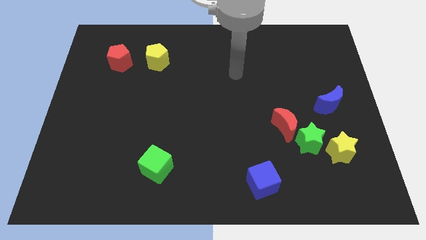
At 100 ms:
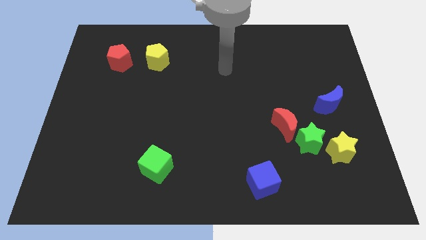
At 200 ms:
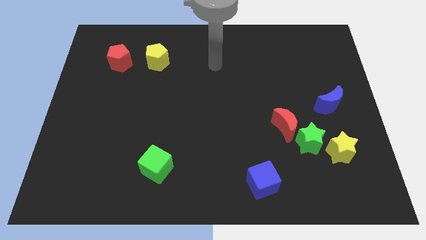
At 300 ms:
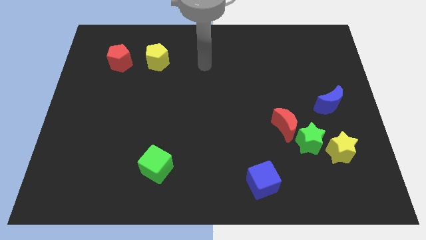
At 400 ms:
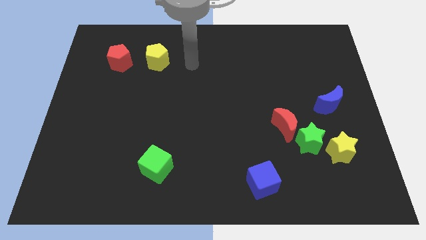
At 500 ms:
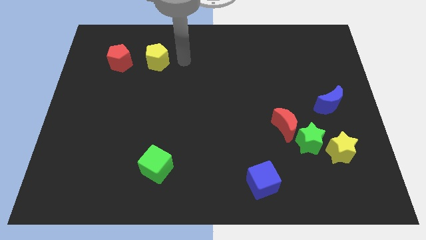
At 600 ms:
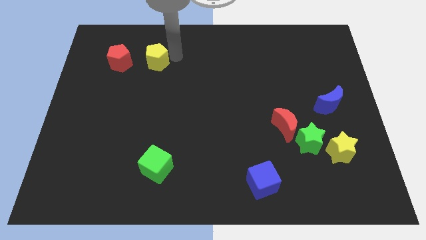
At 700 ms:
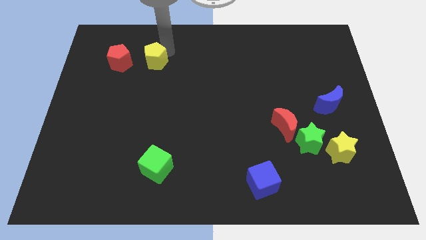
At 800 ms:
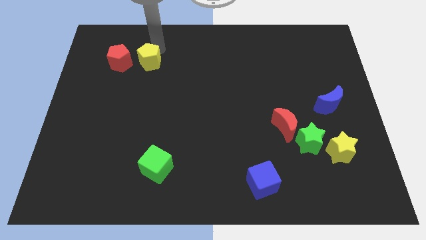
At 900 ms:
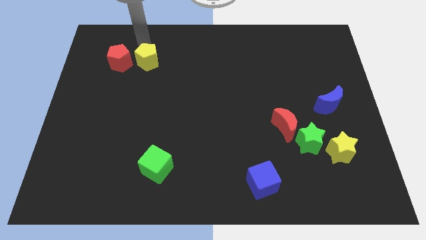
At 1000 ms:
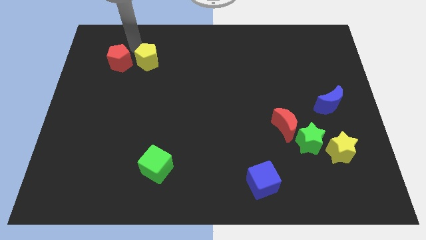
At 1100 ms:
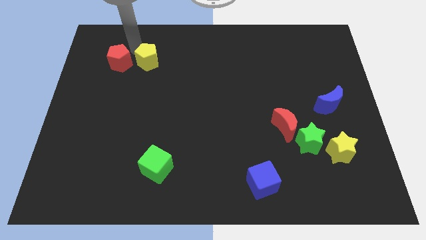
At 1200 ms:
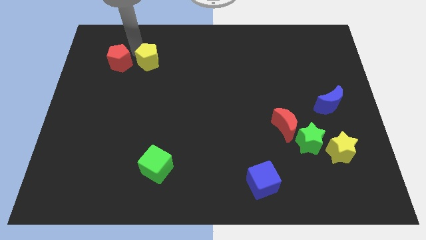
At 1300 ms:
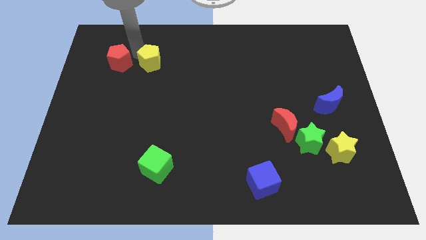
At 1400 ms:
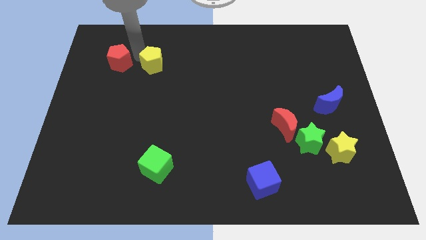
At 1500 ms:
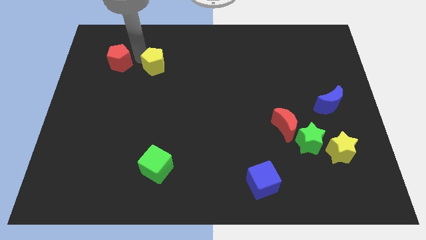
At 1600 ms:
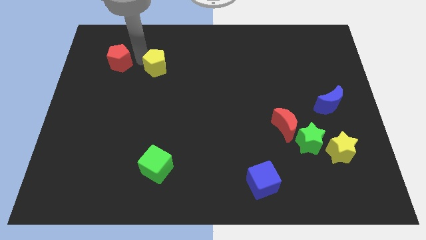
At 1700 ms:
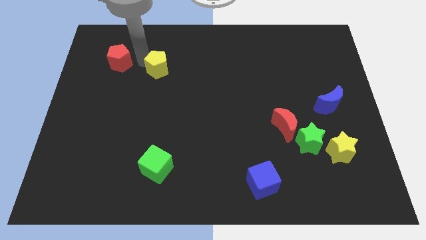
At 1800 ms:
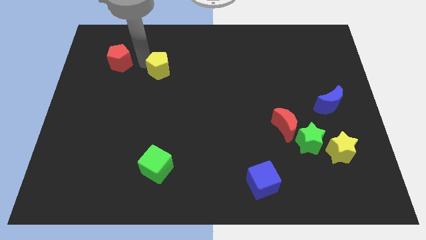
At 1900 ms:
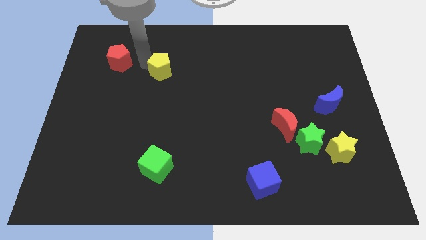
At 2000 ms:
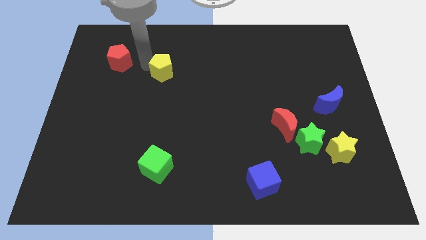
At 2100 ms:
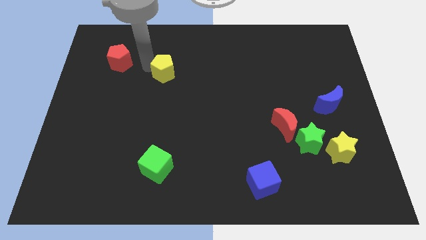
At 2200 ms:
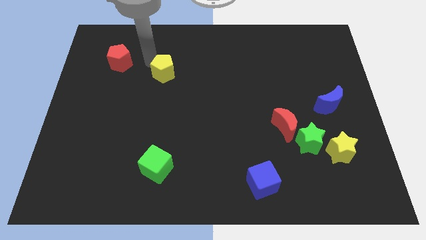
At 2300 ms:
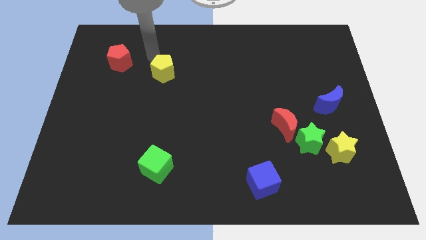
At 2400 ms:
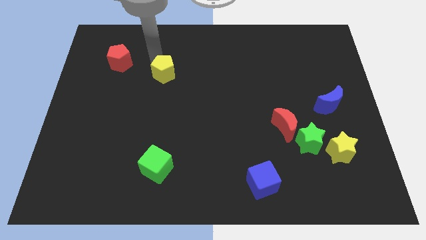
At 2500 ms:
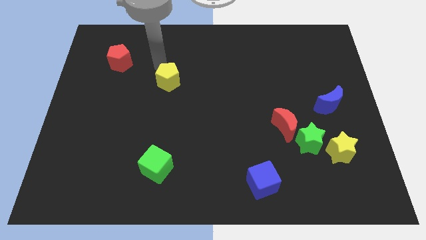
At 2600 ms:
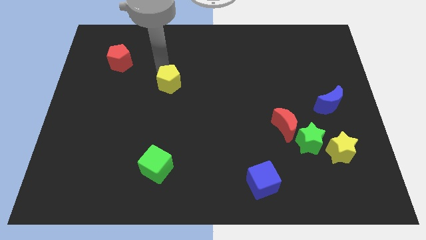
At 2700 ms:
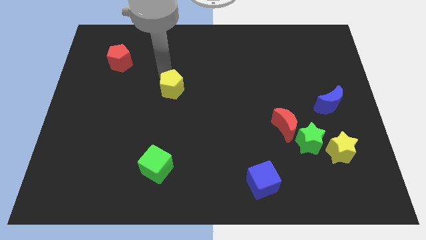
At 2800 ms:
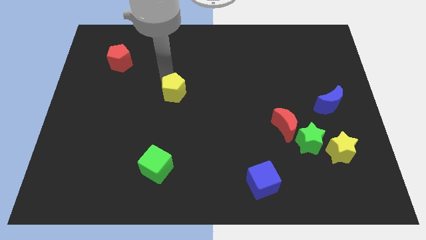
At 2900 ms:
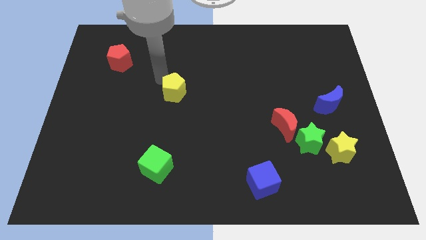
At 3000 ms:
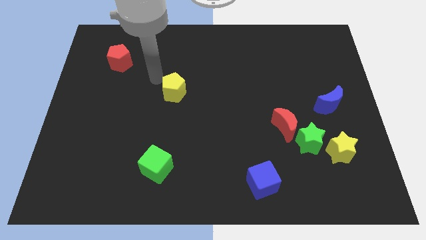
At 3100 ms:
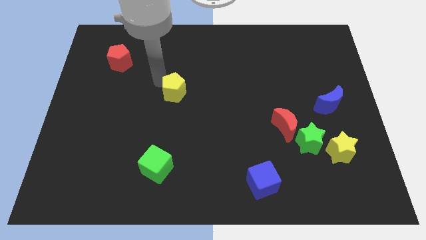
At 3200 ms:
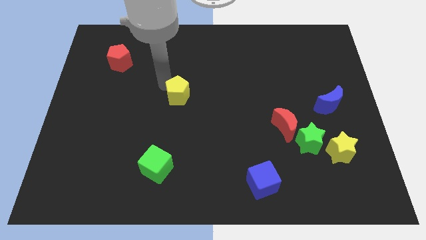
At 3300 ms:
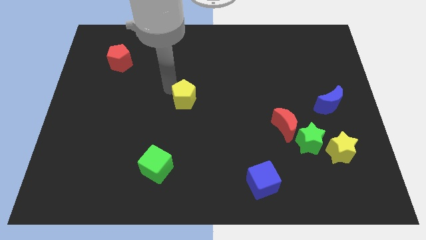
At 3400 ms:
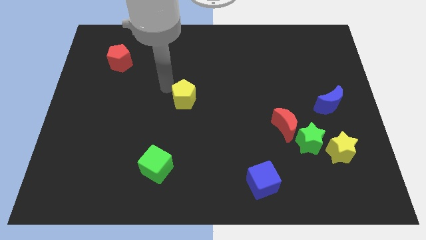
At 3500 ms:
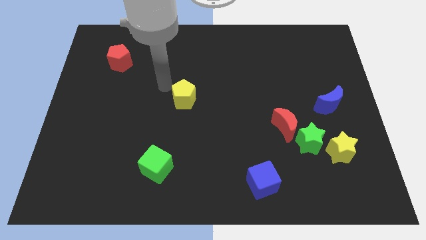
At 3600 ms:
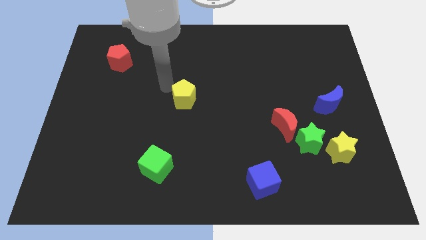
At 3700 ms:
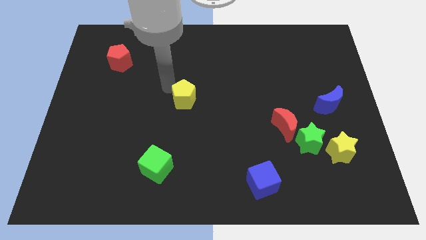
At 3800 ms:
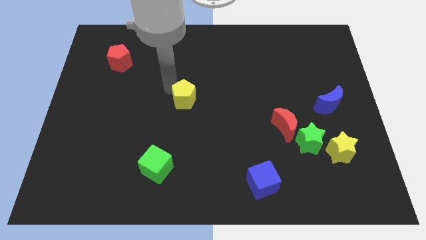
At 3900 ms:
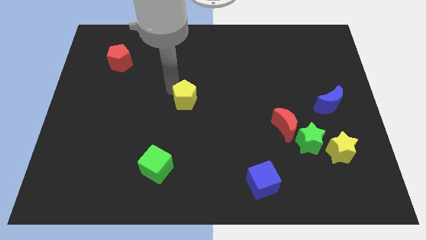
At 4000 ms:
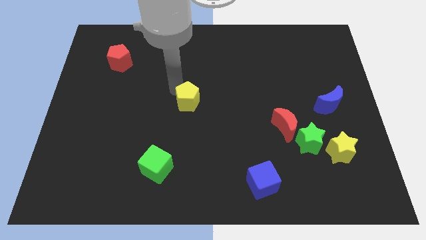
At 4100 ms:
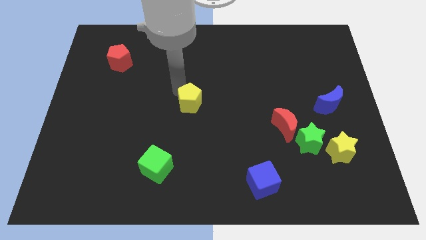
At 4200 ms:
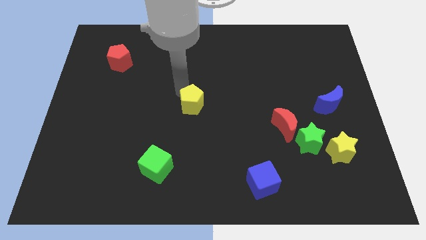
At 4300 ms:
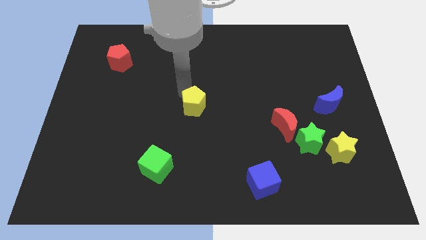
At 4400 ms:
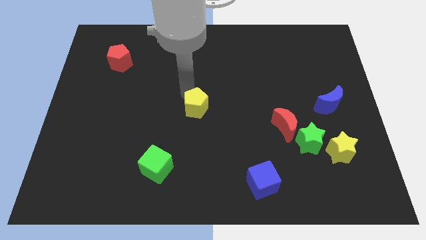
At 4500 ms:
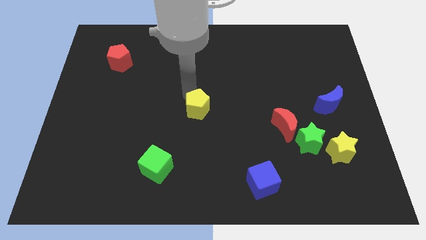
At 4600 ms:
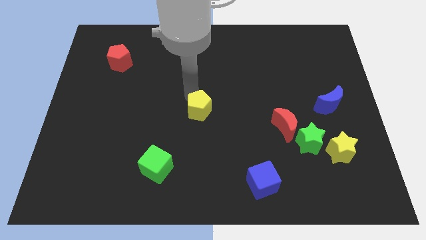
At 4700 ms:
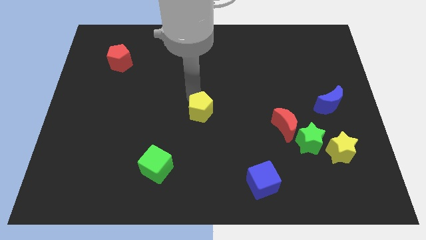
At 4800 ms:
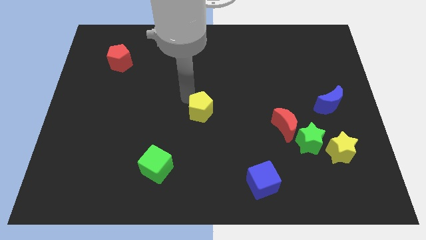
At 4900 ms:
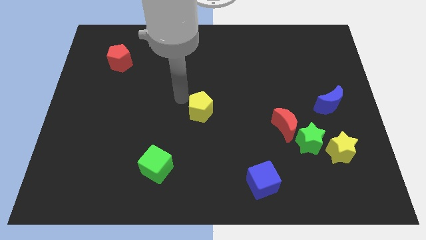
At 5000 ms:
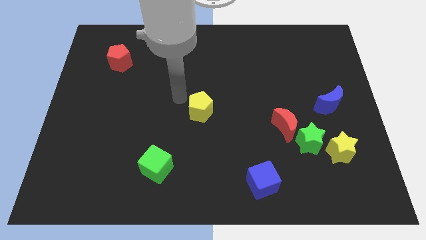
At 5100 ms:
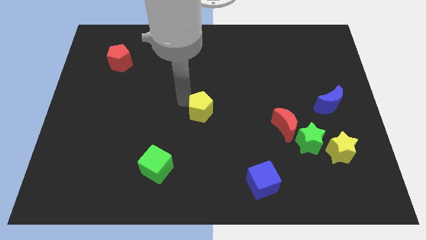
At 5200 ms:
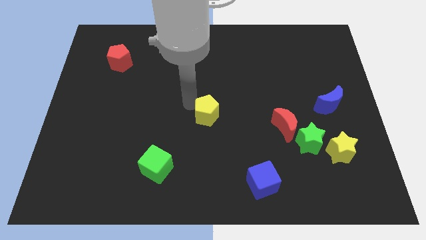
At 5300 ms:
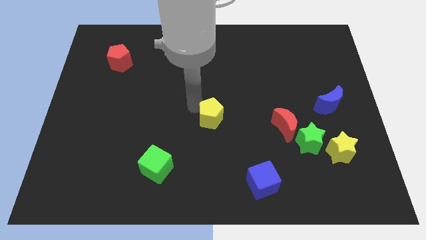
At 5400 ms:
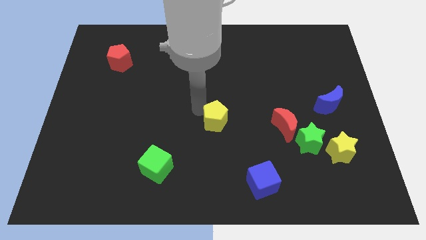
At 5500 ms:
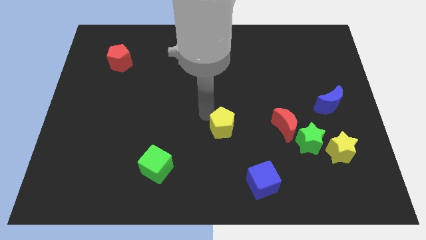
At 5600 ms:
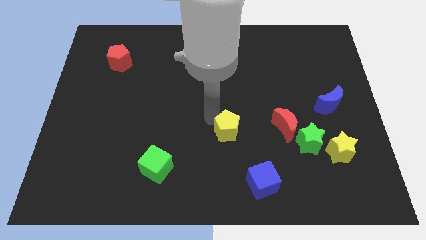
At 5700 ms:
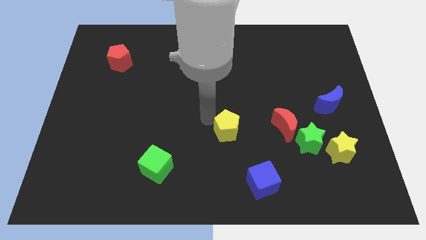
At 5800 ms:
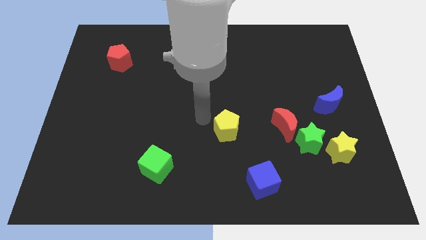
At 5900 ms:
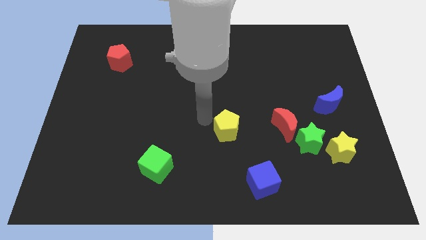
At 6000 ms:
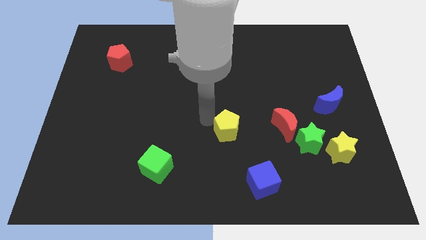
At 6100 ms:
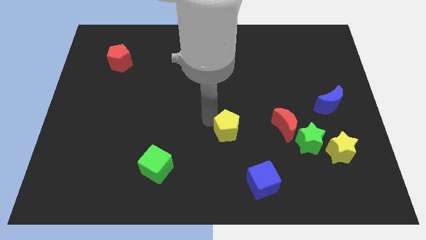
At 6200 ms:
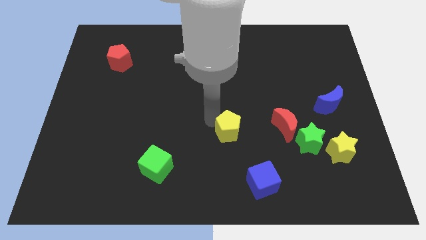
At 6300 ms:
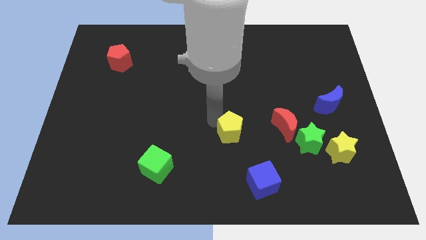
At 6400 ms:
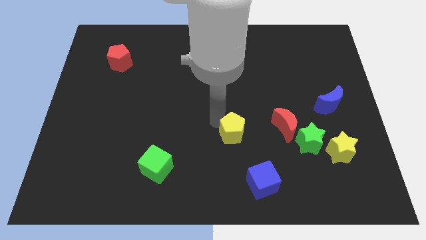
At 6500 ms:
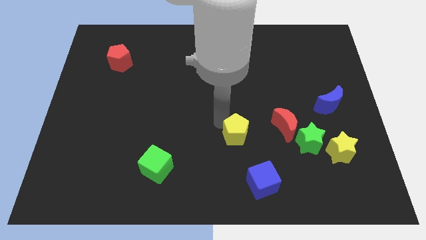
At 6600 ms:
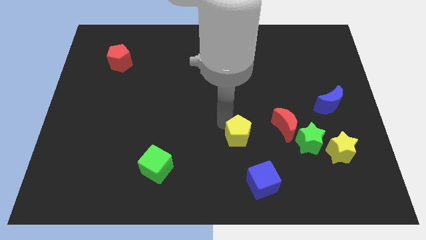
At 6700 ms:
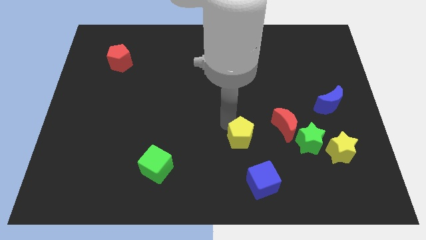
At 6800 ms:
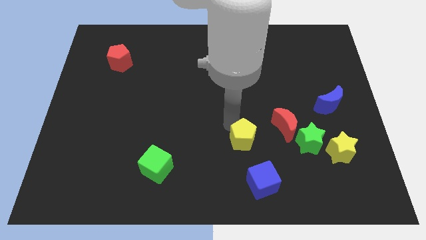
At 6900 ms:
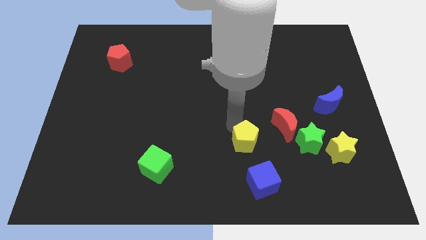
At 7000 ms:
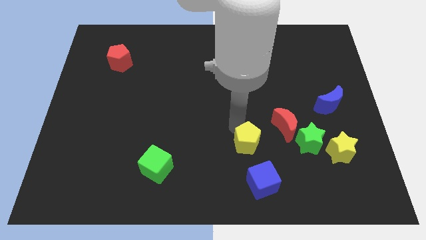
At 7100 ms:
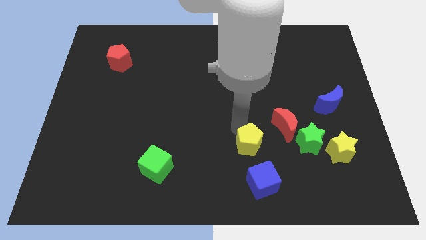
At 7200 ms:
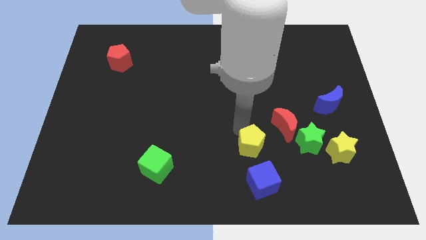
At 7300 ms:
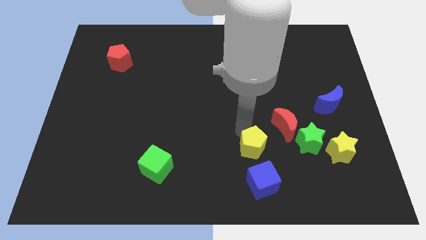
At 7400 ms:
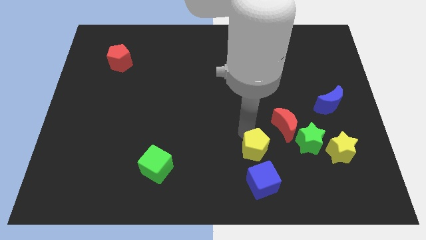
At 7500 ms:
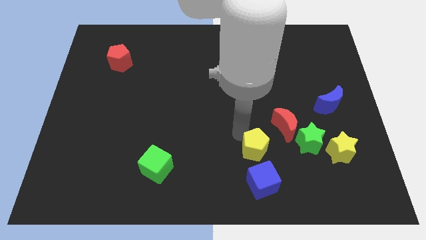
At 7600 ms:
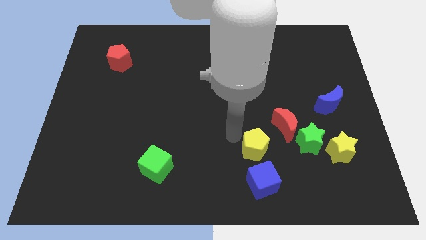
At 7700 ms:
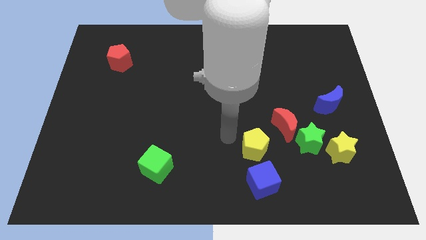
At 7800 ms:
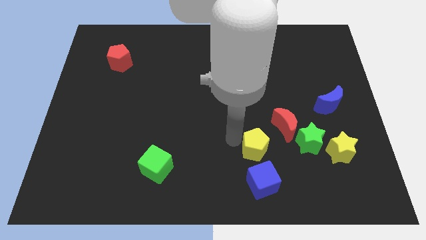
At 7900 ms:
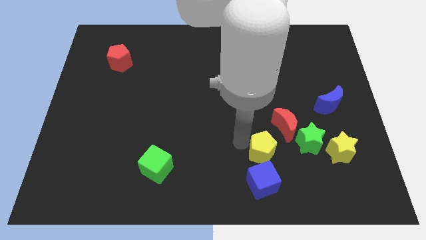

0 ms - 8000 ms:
put the yellow pentagon to the top right of the blue cube
